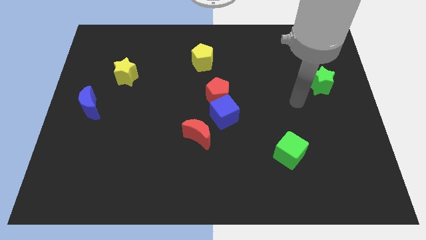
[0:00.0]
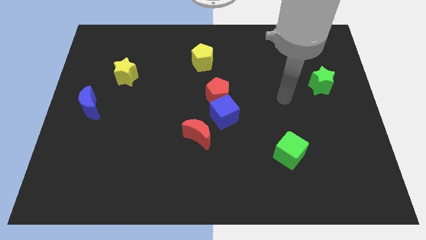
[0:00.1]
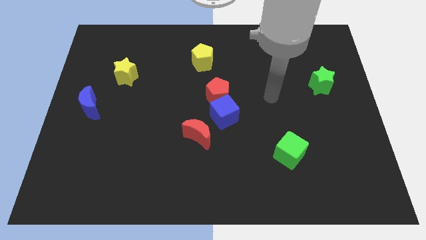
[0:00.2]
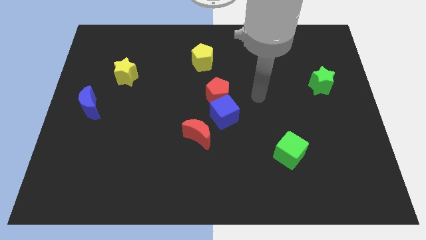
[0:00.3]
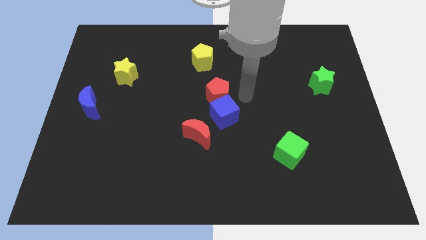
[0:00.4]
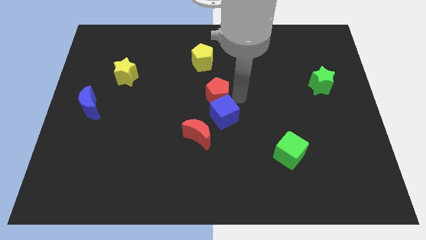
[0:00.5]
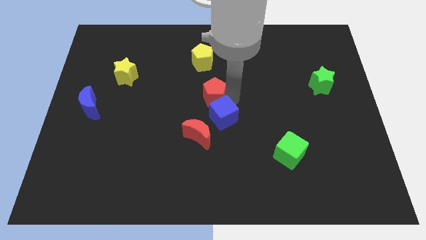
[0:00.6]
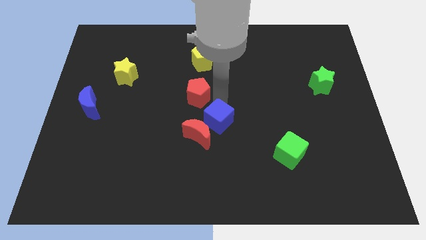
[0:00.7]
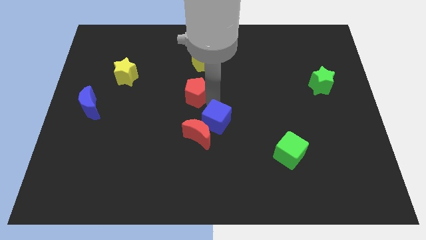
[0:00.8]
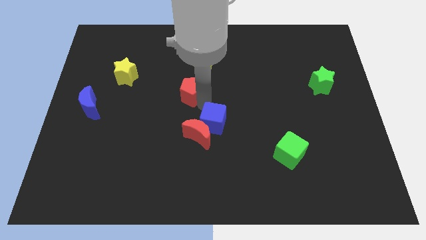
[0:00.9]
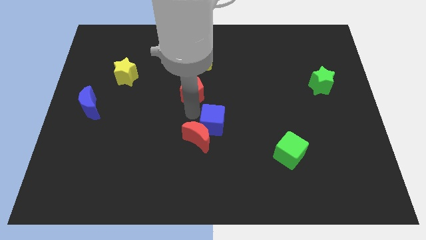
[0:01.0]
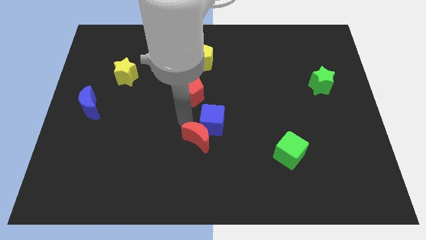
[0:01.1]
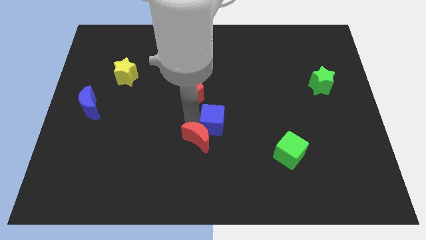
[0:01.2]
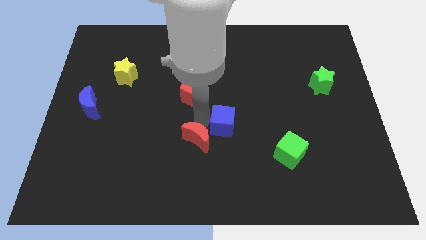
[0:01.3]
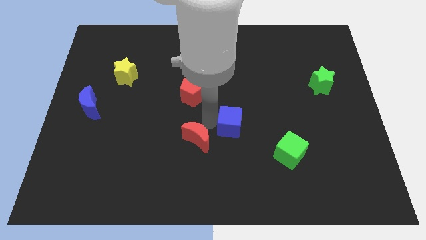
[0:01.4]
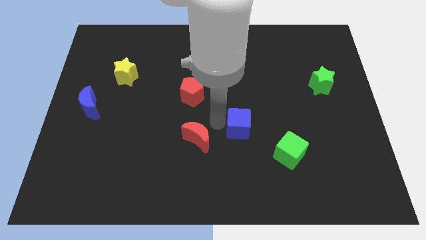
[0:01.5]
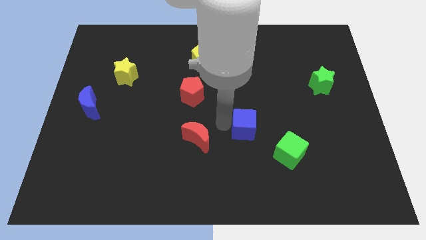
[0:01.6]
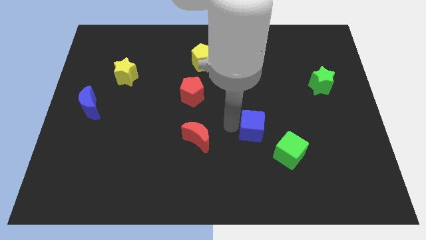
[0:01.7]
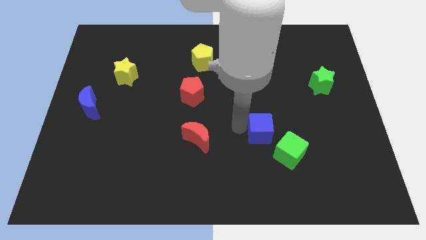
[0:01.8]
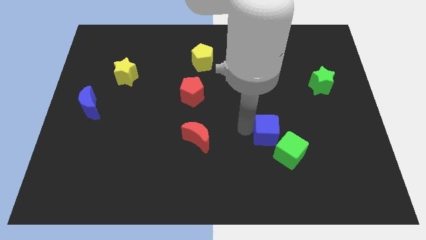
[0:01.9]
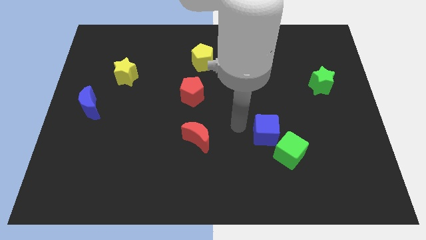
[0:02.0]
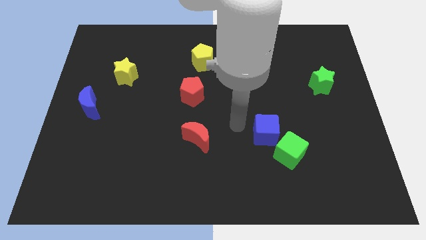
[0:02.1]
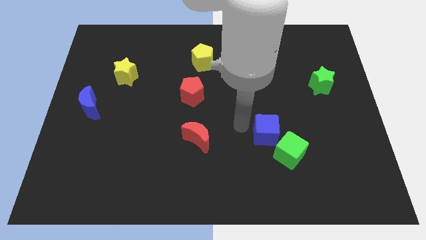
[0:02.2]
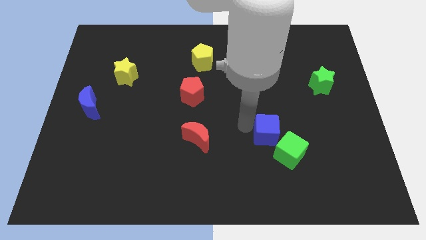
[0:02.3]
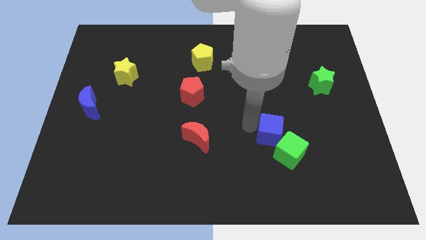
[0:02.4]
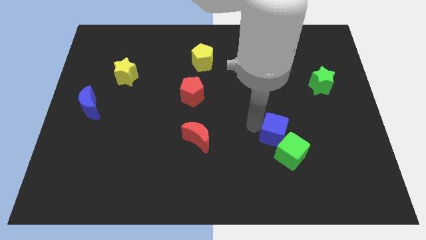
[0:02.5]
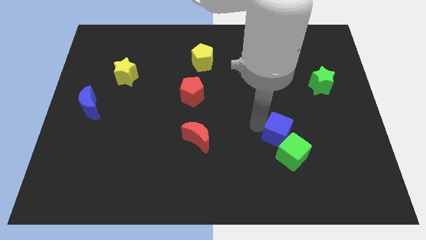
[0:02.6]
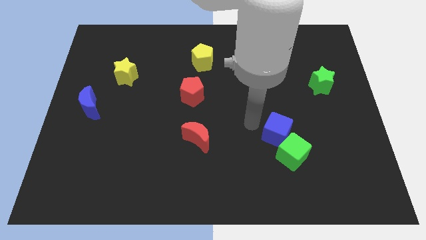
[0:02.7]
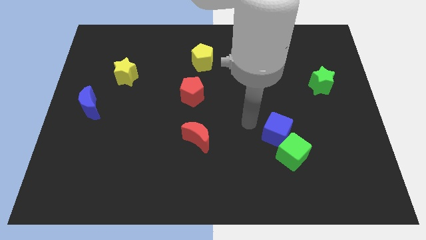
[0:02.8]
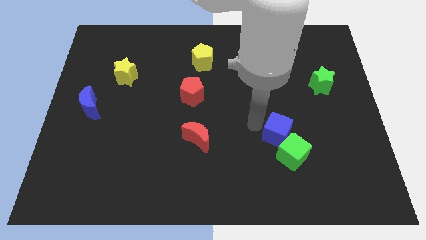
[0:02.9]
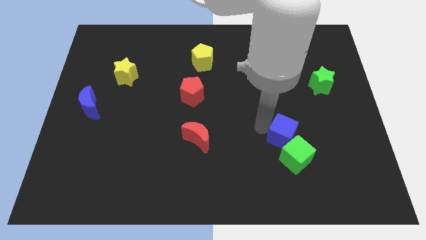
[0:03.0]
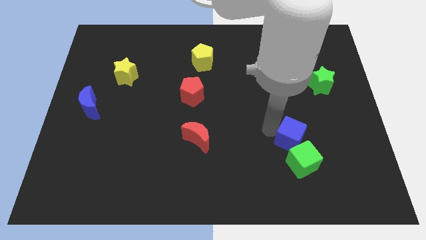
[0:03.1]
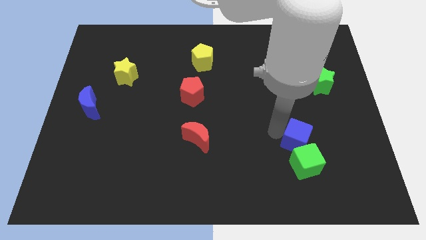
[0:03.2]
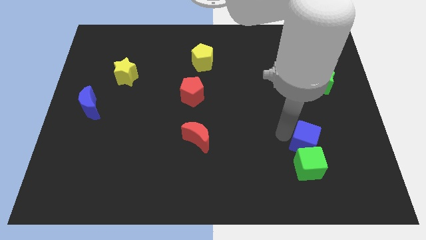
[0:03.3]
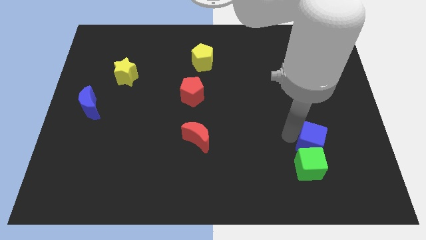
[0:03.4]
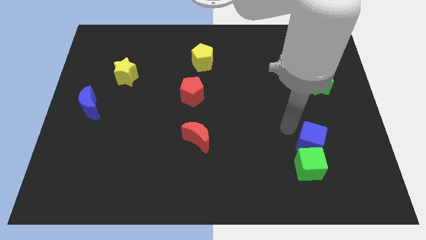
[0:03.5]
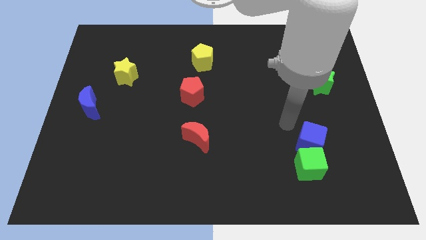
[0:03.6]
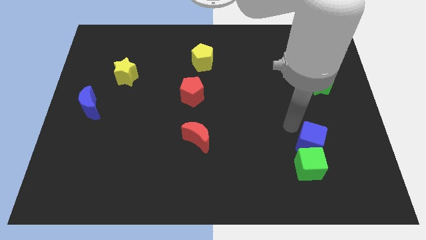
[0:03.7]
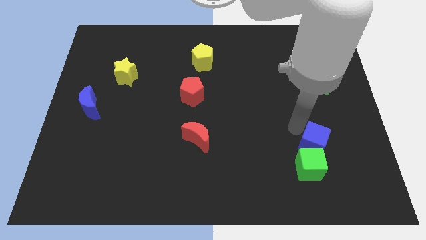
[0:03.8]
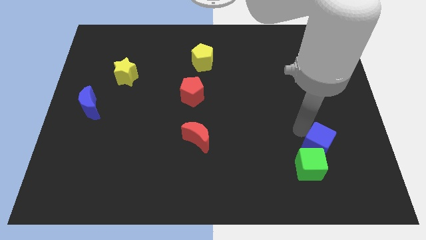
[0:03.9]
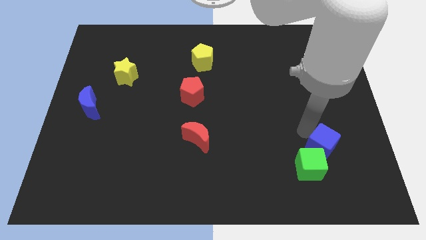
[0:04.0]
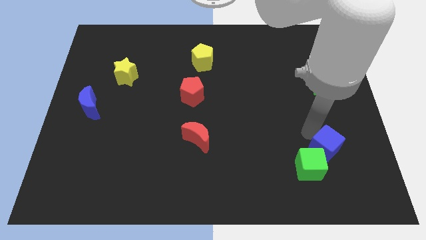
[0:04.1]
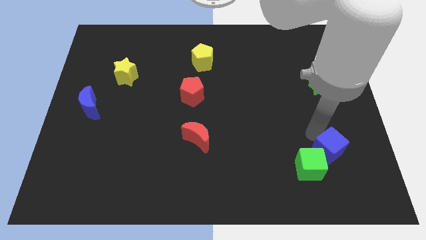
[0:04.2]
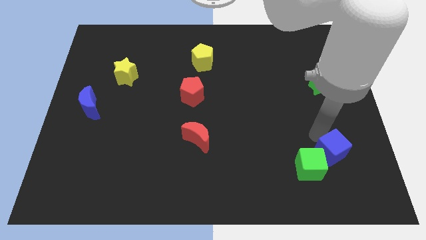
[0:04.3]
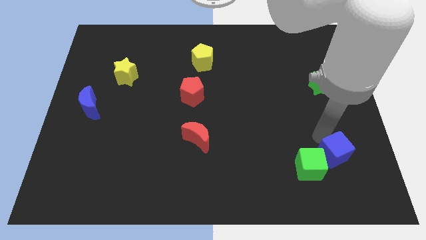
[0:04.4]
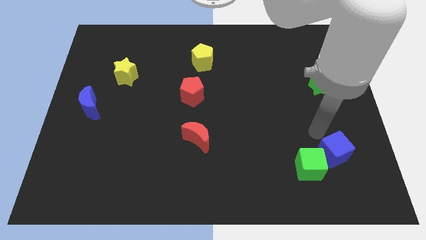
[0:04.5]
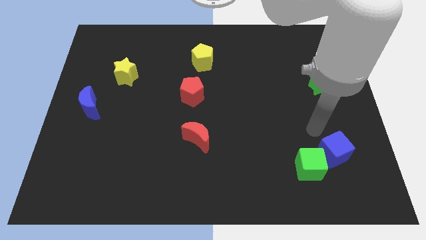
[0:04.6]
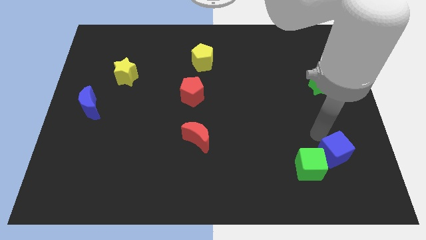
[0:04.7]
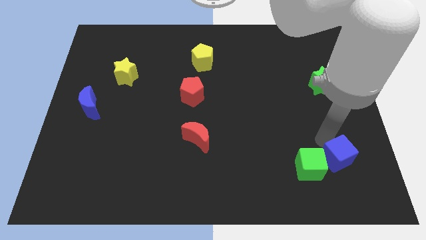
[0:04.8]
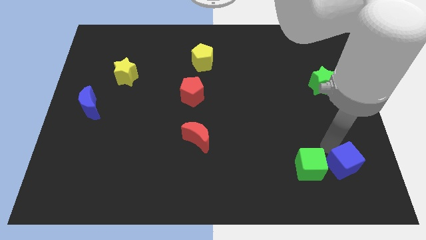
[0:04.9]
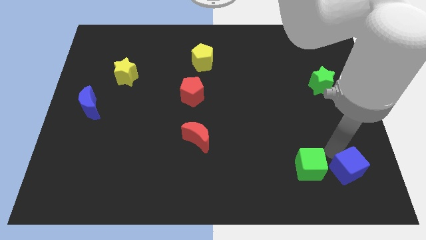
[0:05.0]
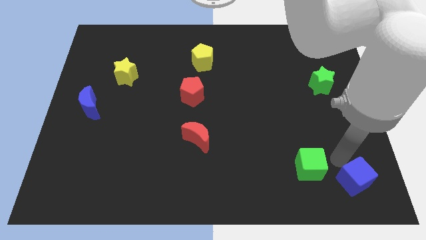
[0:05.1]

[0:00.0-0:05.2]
put the blue cube to the lower right corner

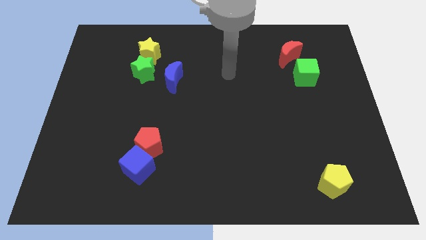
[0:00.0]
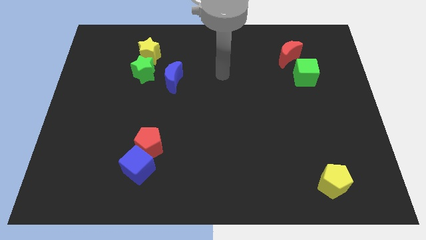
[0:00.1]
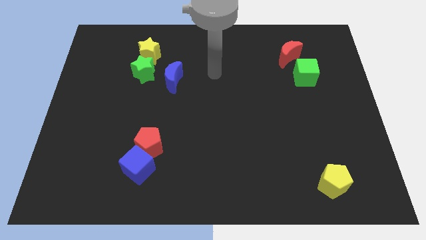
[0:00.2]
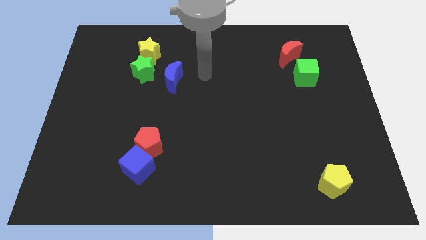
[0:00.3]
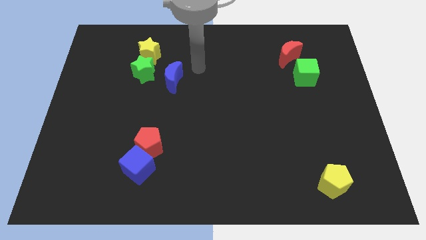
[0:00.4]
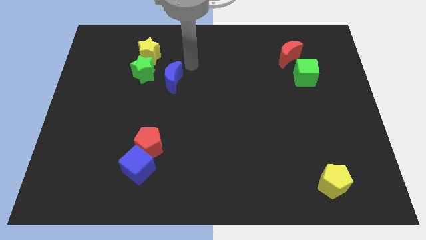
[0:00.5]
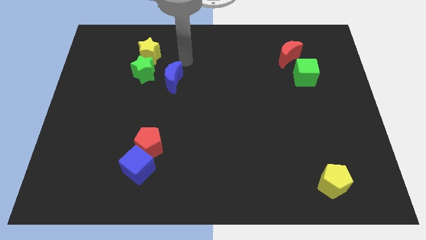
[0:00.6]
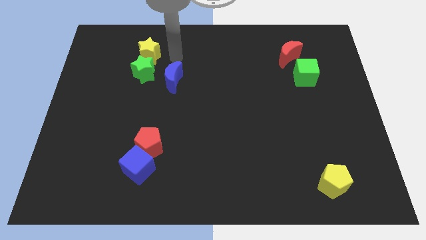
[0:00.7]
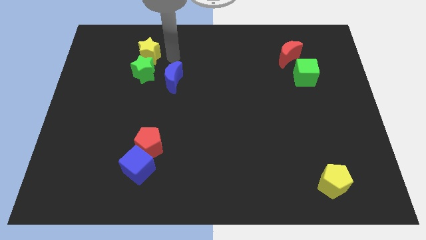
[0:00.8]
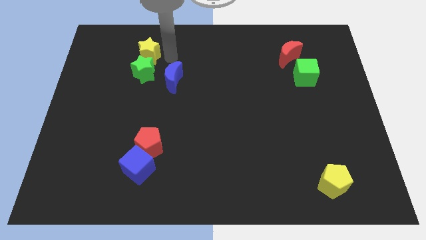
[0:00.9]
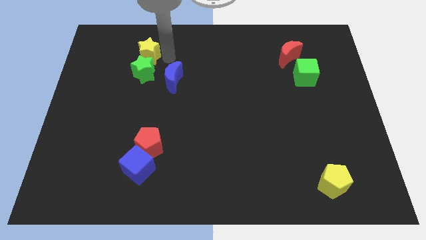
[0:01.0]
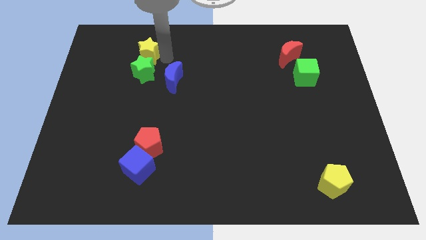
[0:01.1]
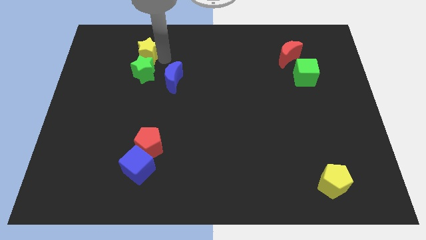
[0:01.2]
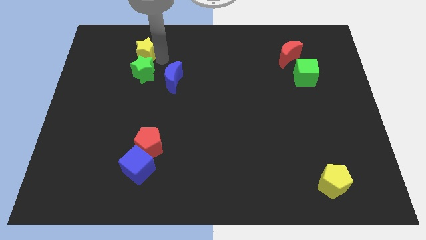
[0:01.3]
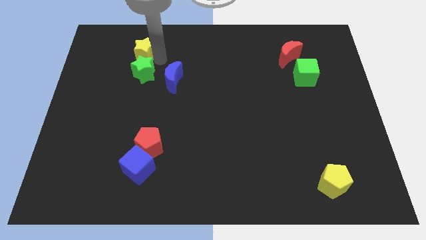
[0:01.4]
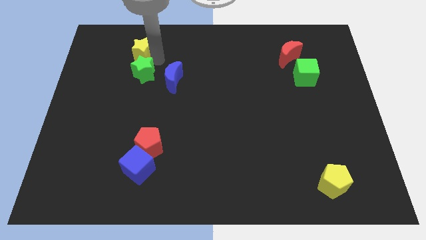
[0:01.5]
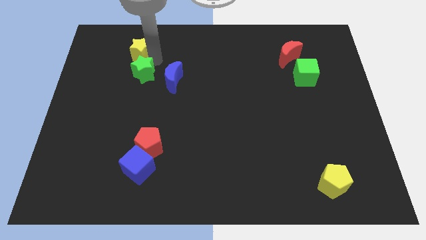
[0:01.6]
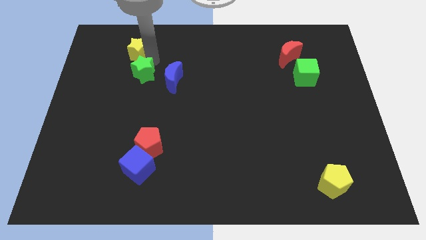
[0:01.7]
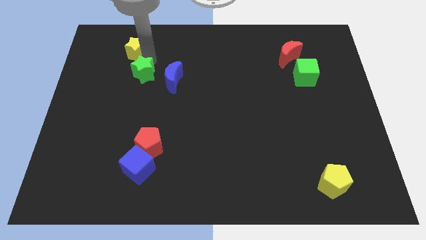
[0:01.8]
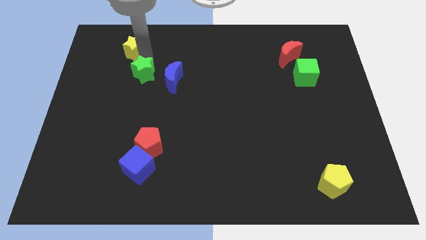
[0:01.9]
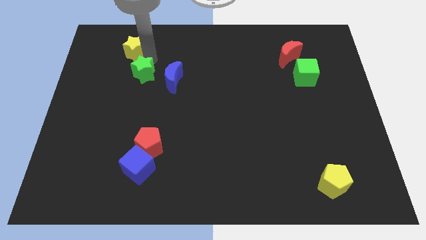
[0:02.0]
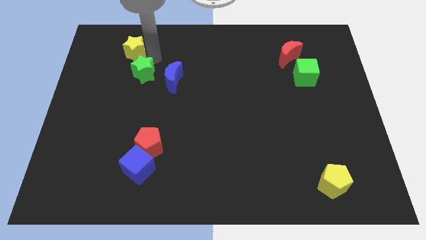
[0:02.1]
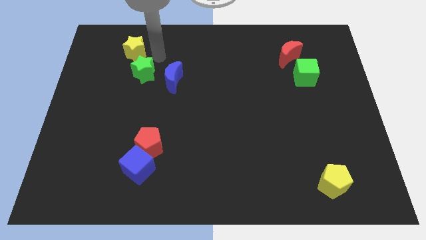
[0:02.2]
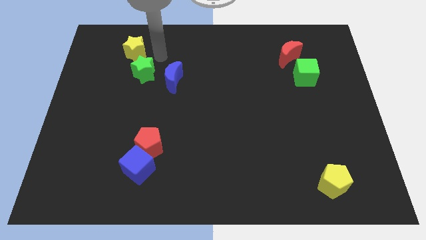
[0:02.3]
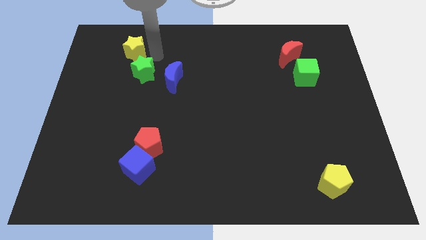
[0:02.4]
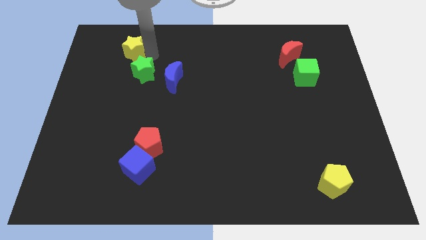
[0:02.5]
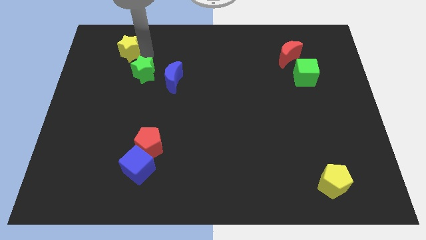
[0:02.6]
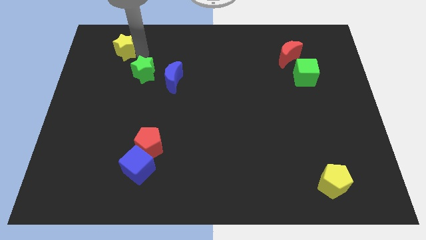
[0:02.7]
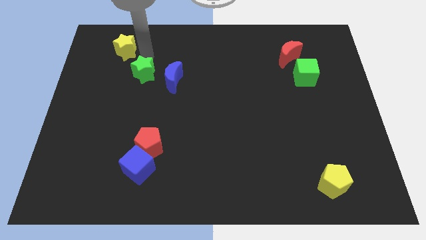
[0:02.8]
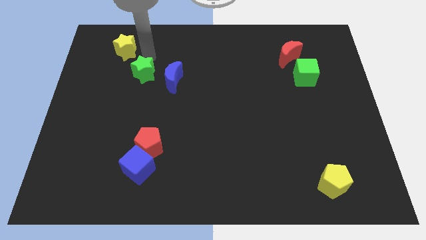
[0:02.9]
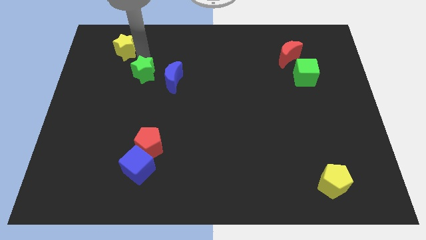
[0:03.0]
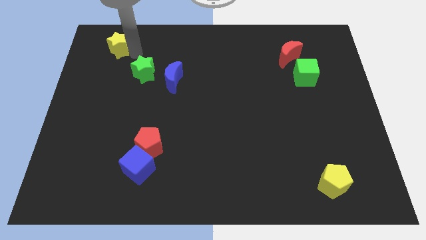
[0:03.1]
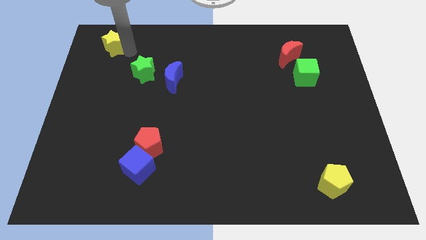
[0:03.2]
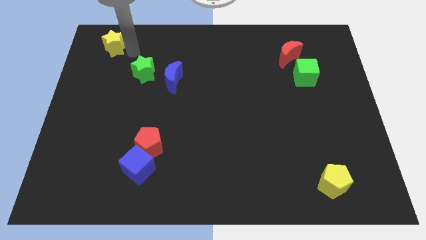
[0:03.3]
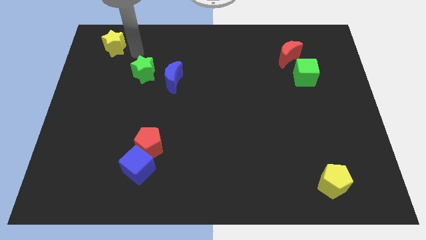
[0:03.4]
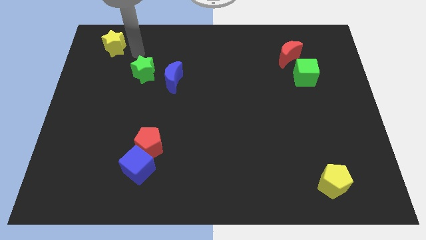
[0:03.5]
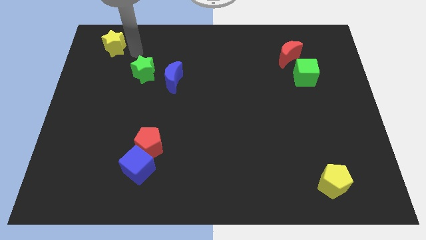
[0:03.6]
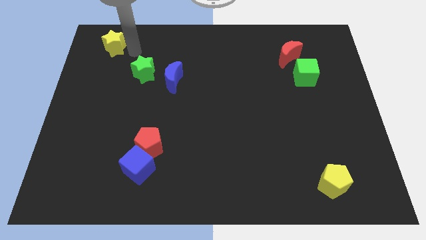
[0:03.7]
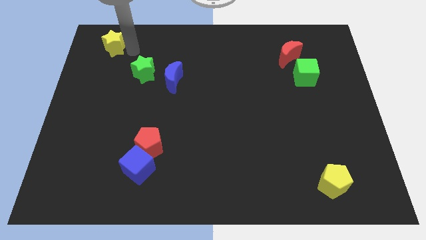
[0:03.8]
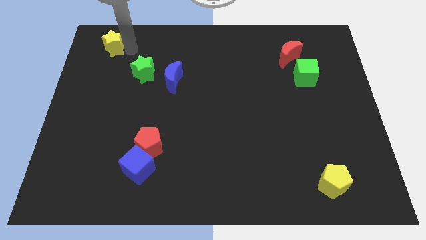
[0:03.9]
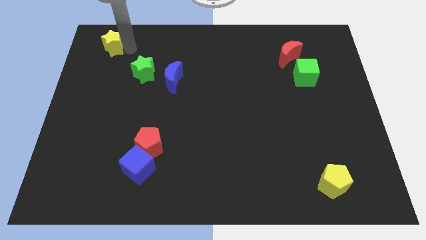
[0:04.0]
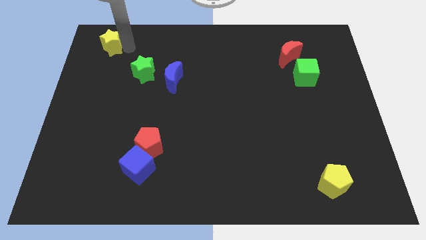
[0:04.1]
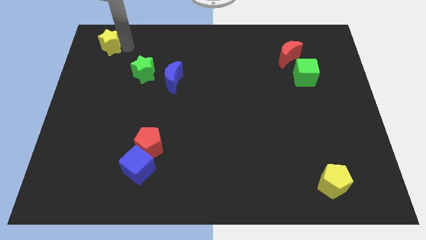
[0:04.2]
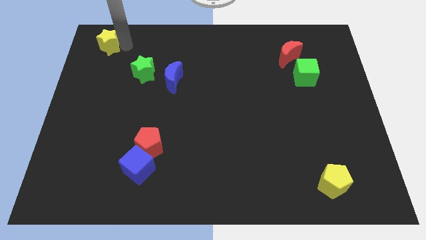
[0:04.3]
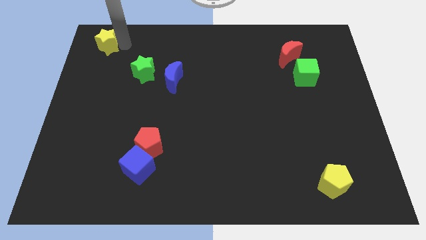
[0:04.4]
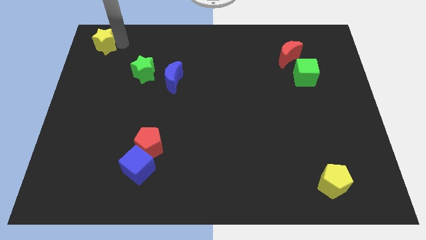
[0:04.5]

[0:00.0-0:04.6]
push the yellow star to the top left of the board
